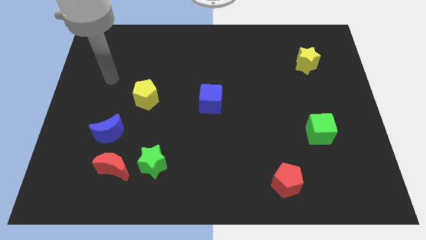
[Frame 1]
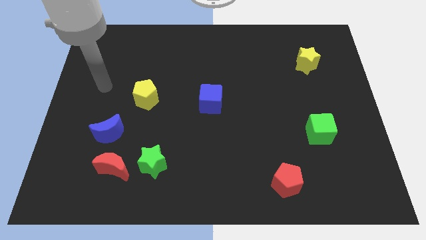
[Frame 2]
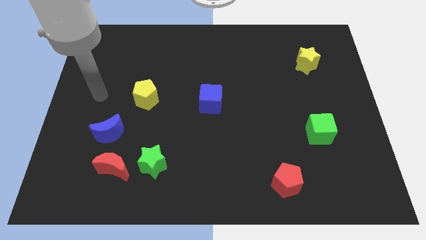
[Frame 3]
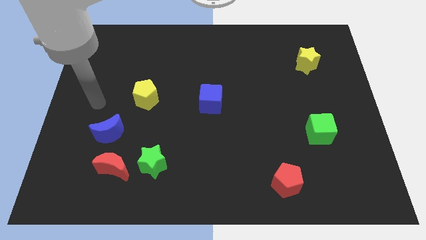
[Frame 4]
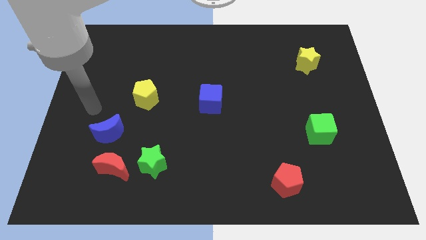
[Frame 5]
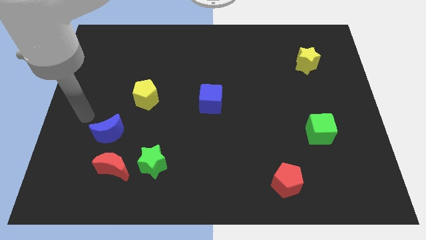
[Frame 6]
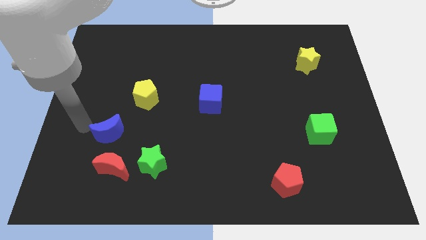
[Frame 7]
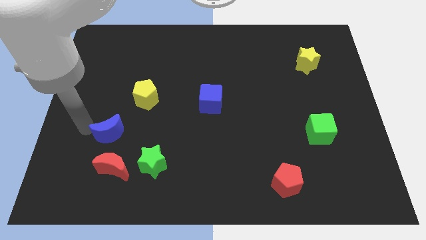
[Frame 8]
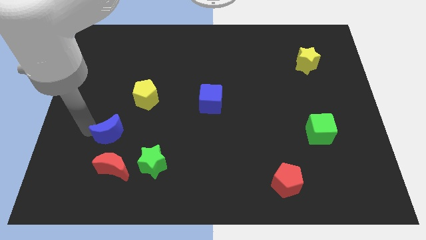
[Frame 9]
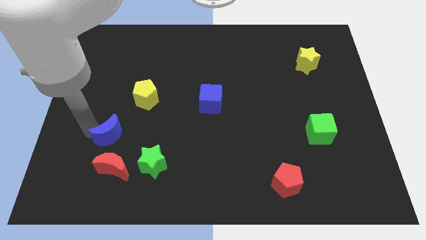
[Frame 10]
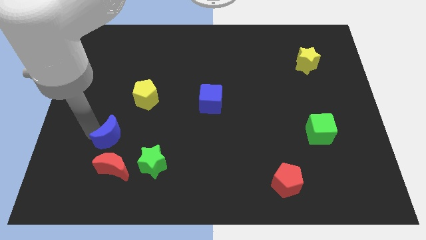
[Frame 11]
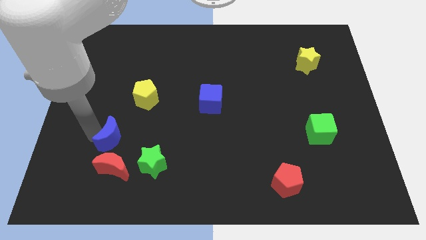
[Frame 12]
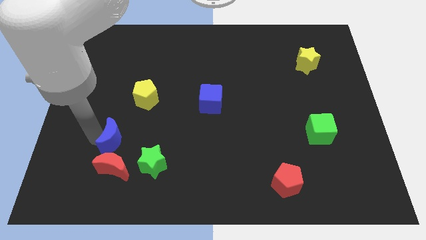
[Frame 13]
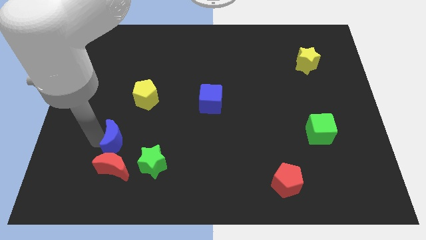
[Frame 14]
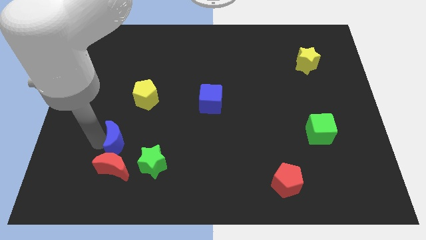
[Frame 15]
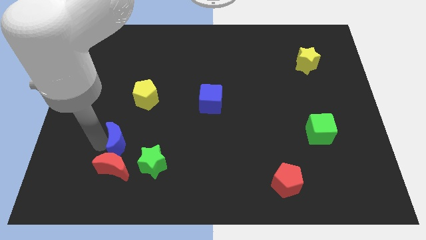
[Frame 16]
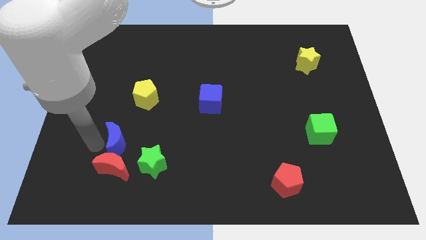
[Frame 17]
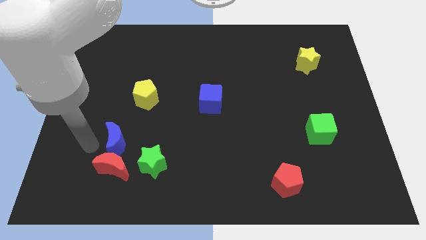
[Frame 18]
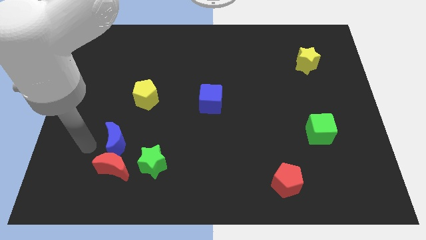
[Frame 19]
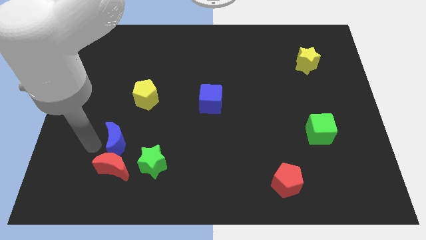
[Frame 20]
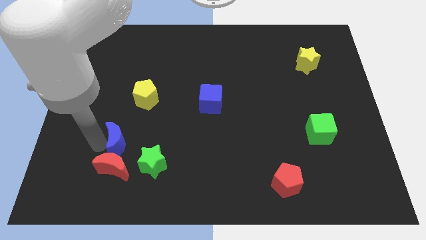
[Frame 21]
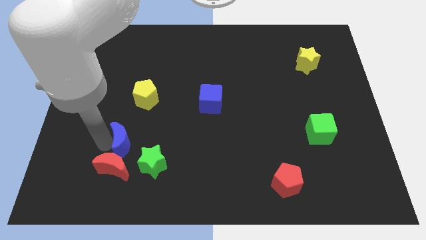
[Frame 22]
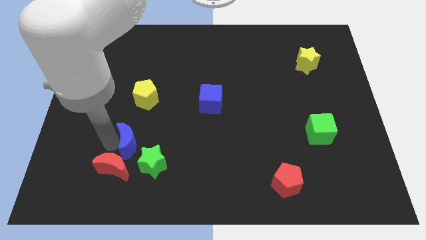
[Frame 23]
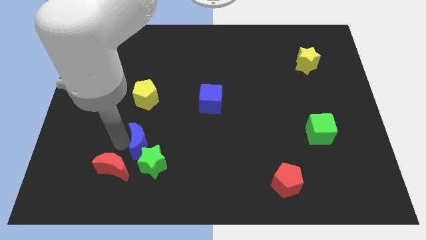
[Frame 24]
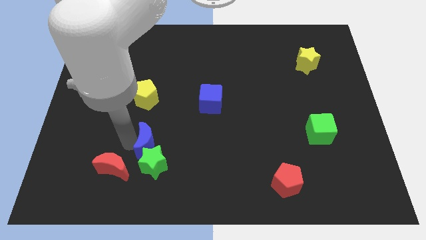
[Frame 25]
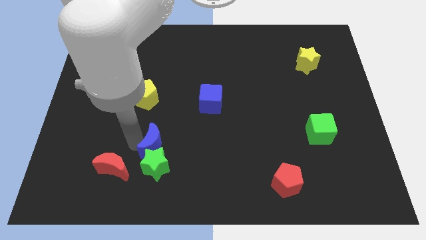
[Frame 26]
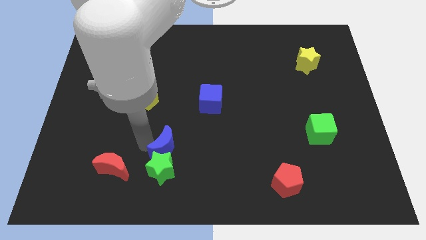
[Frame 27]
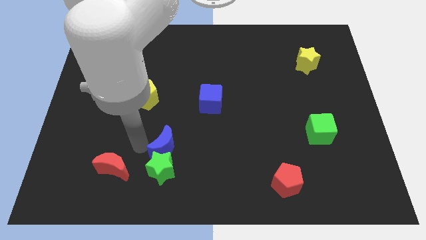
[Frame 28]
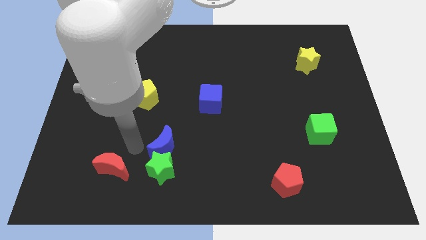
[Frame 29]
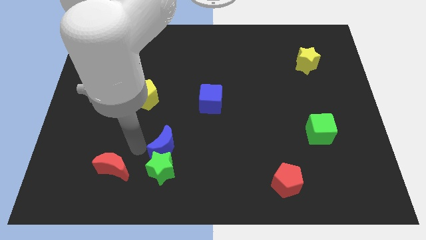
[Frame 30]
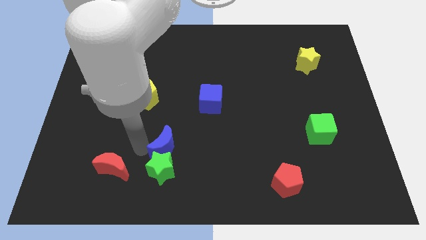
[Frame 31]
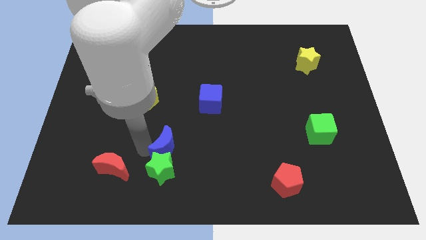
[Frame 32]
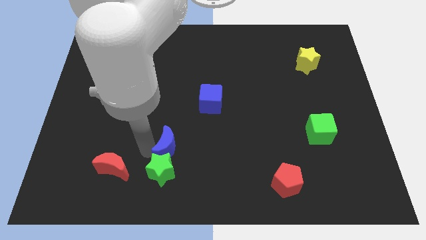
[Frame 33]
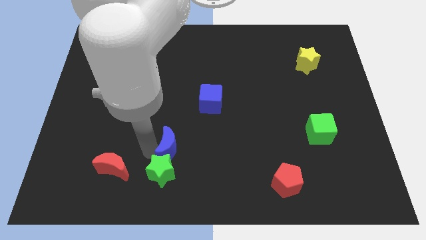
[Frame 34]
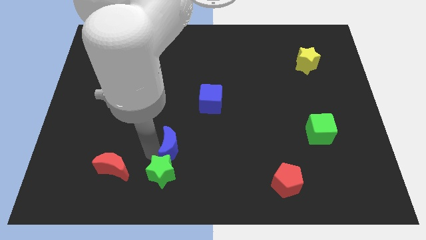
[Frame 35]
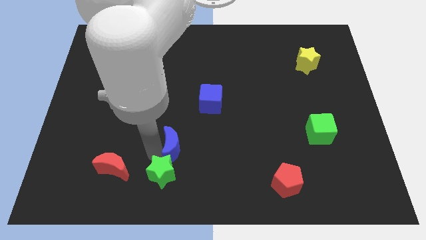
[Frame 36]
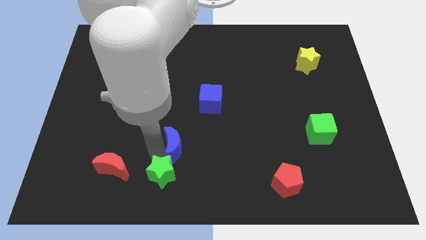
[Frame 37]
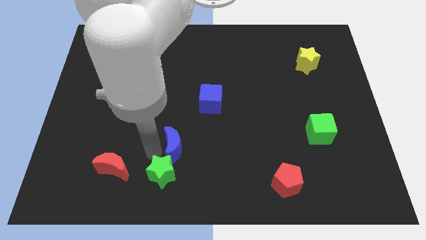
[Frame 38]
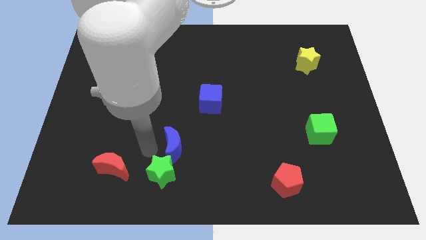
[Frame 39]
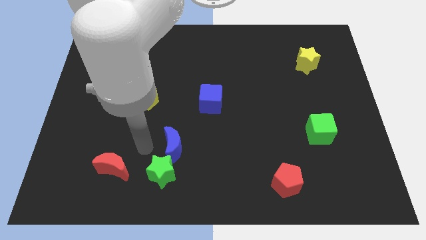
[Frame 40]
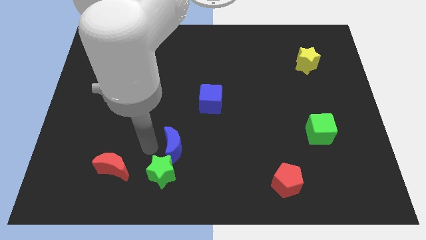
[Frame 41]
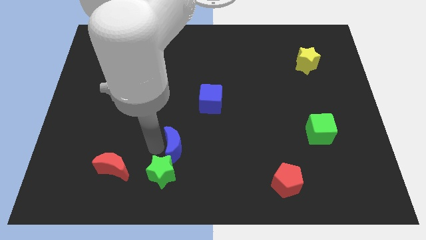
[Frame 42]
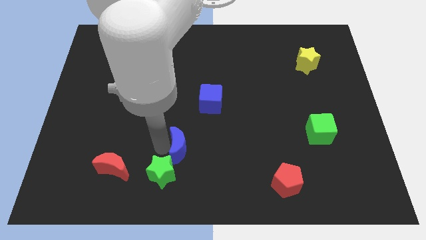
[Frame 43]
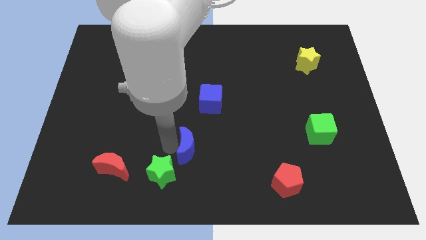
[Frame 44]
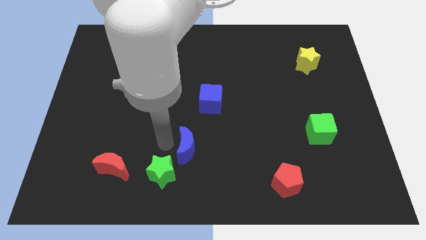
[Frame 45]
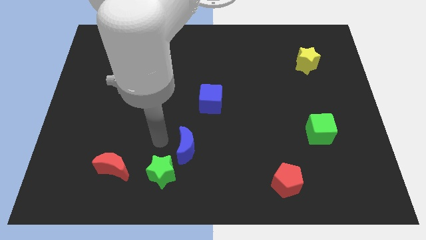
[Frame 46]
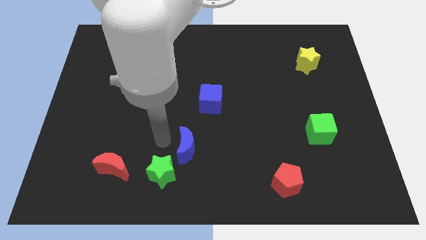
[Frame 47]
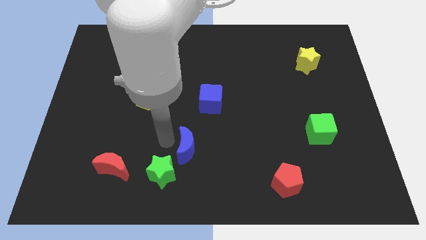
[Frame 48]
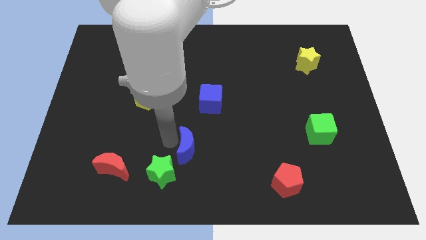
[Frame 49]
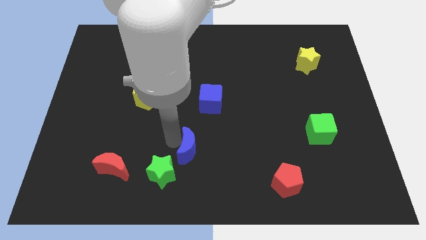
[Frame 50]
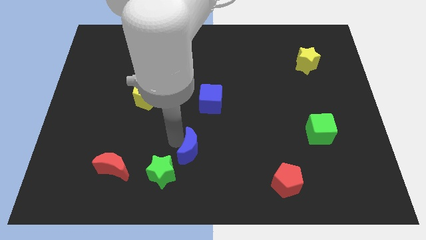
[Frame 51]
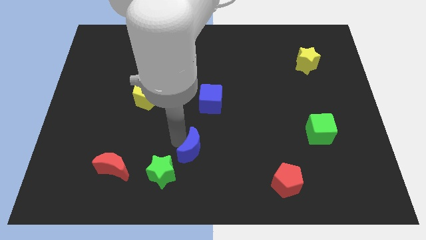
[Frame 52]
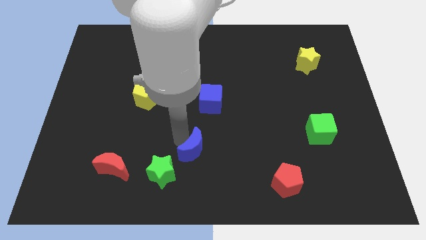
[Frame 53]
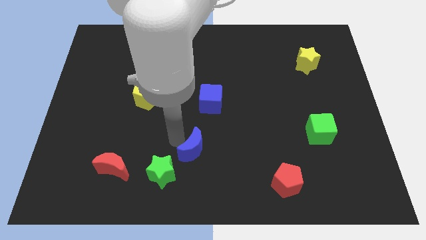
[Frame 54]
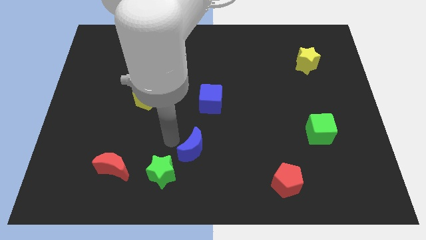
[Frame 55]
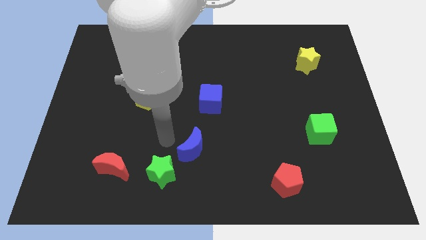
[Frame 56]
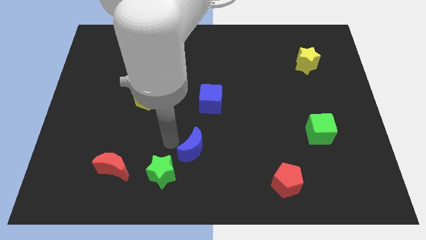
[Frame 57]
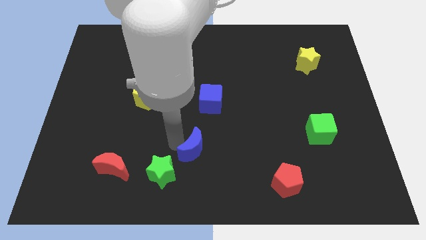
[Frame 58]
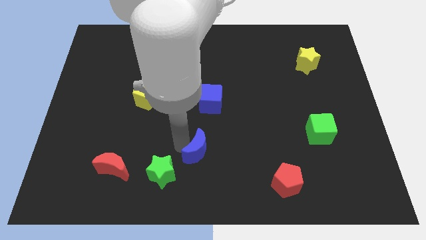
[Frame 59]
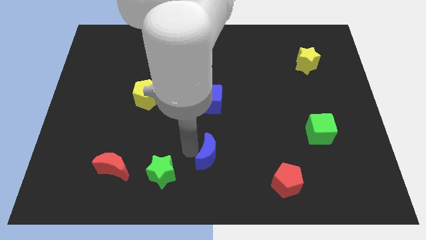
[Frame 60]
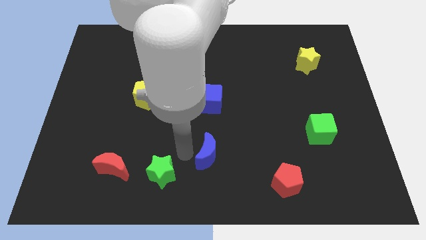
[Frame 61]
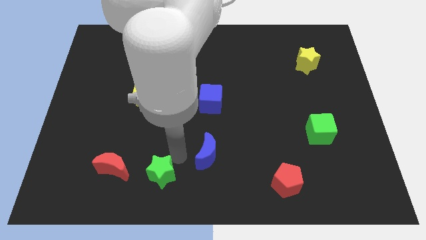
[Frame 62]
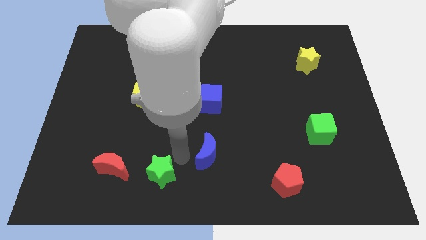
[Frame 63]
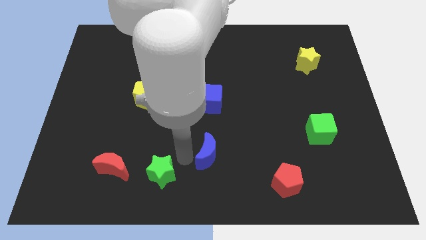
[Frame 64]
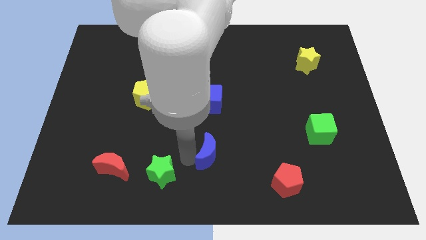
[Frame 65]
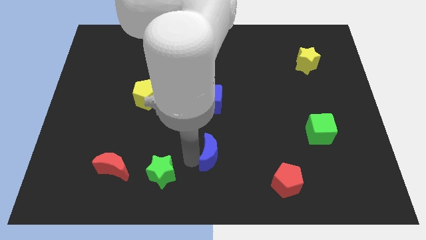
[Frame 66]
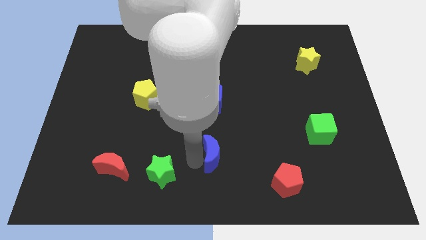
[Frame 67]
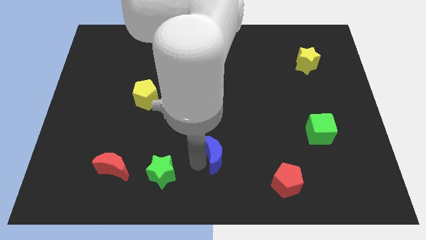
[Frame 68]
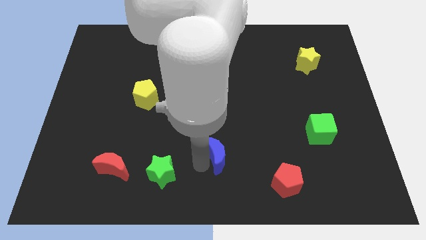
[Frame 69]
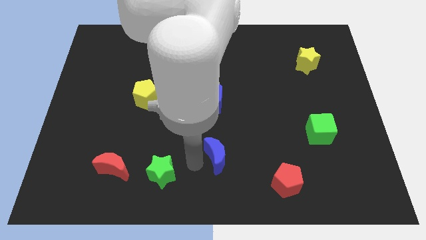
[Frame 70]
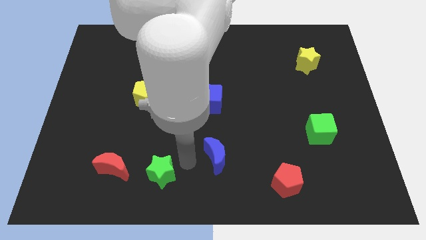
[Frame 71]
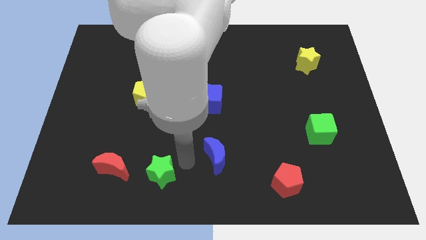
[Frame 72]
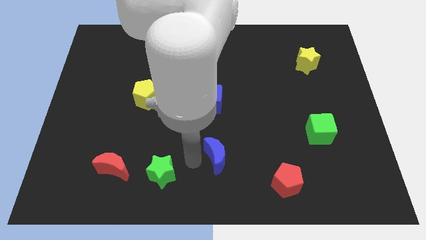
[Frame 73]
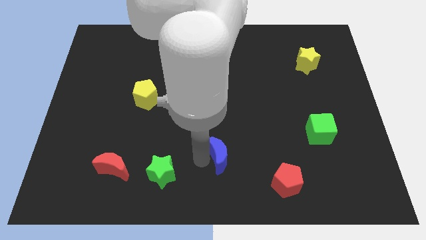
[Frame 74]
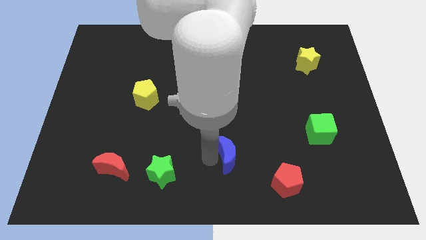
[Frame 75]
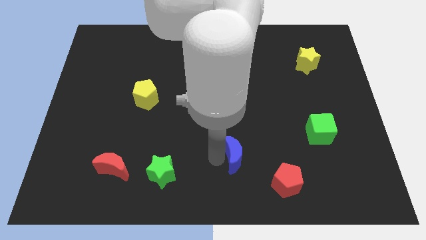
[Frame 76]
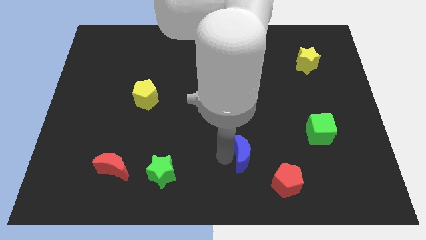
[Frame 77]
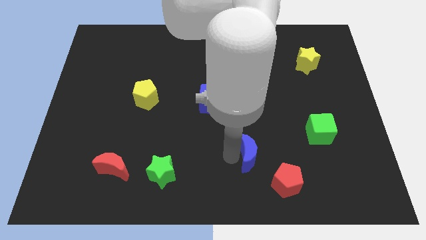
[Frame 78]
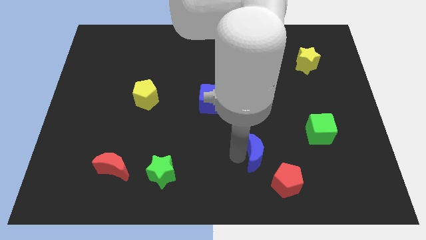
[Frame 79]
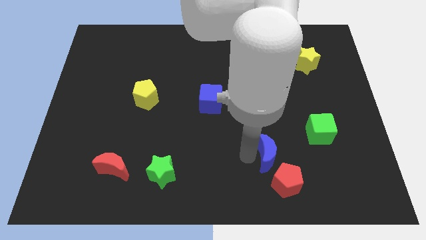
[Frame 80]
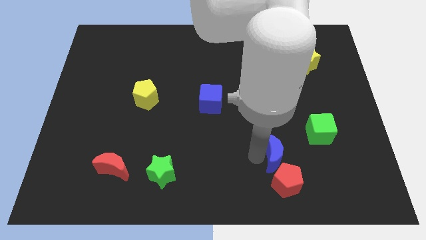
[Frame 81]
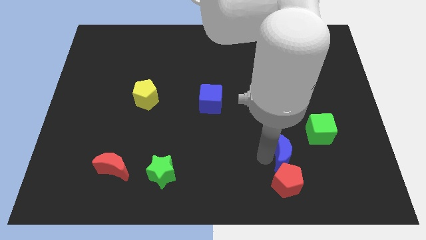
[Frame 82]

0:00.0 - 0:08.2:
move the blue moon to the bottom left of the green cube
